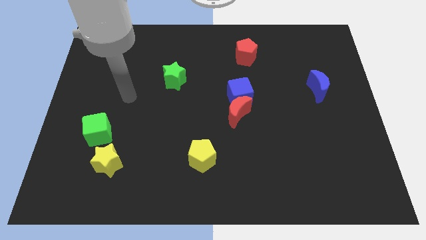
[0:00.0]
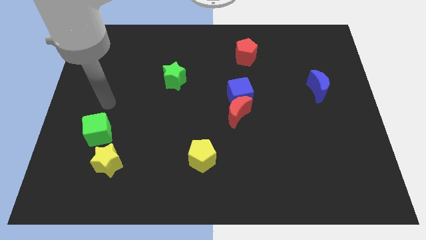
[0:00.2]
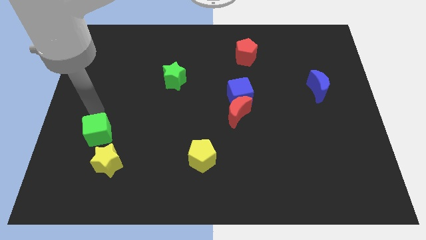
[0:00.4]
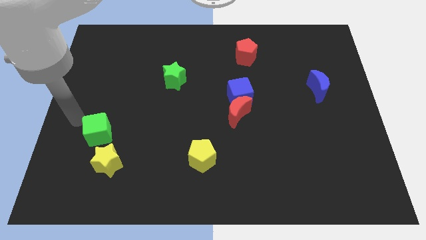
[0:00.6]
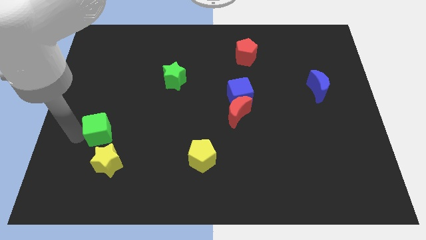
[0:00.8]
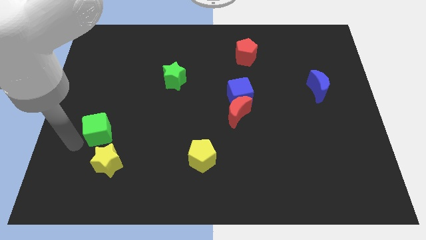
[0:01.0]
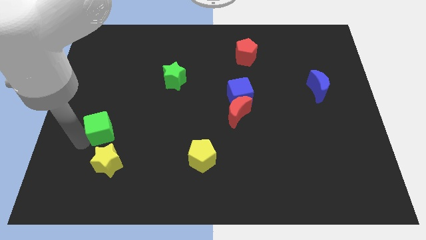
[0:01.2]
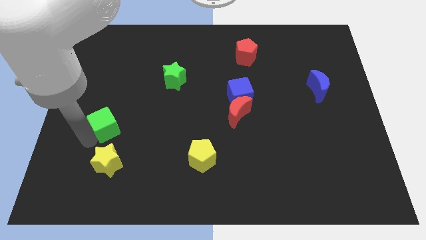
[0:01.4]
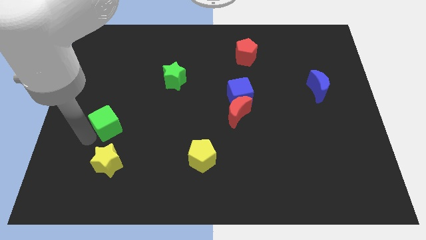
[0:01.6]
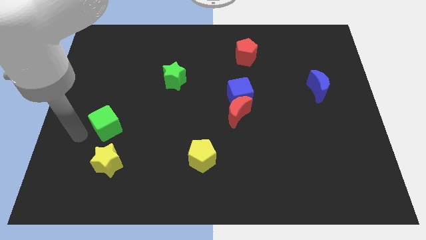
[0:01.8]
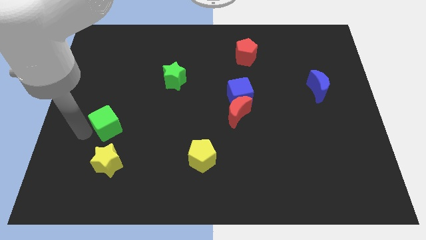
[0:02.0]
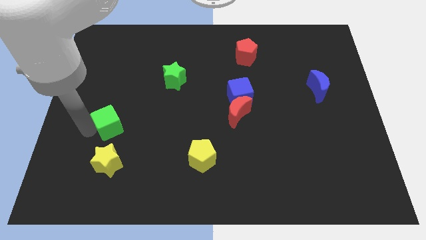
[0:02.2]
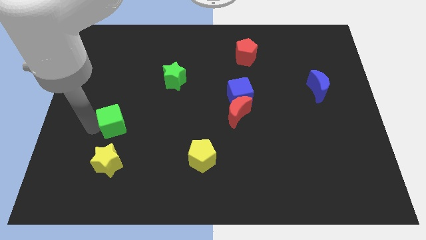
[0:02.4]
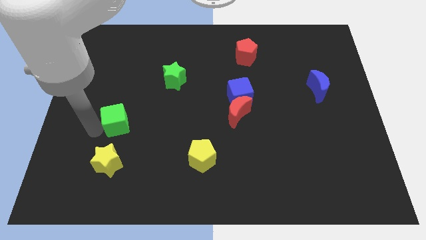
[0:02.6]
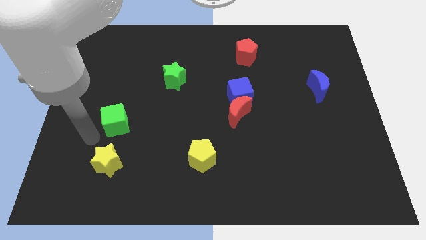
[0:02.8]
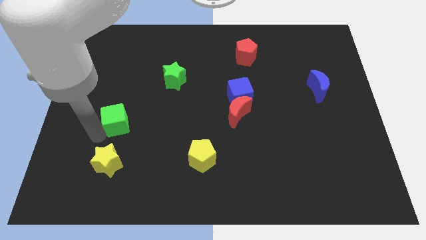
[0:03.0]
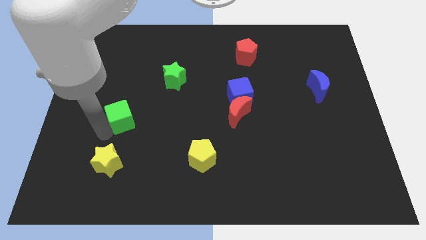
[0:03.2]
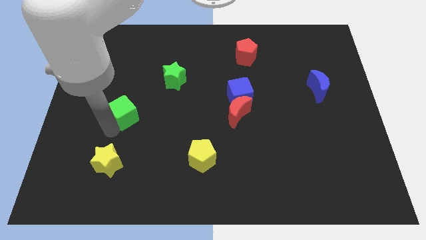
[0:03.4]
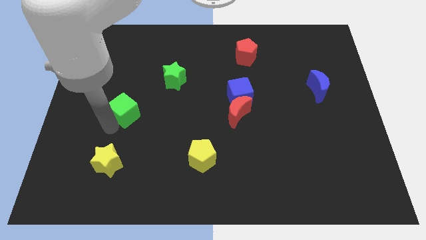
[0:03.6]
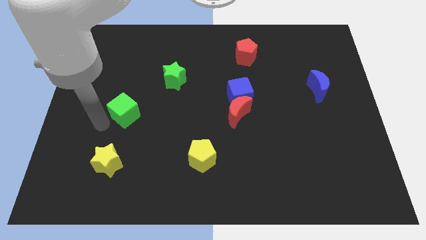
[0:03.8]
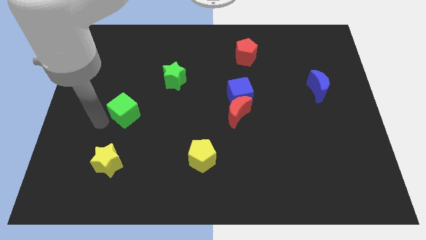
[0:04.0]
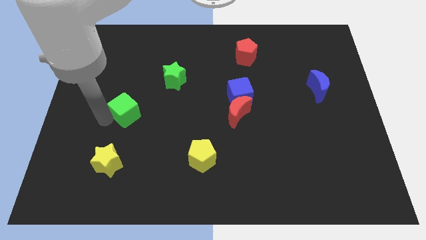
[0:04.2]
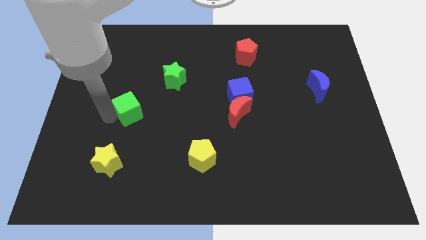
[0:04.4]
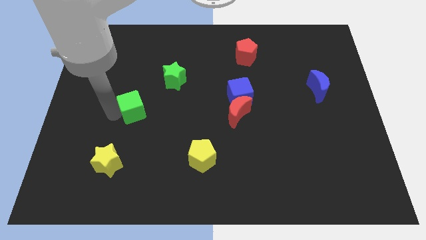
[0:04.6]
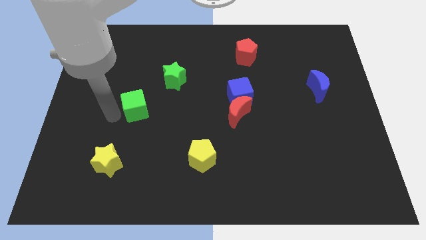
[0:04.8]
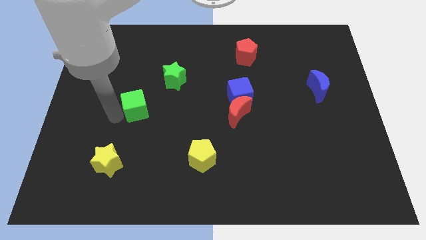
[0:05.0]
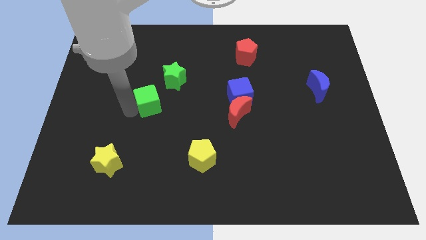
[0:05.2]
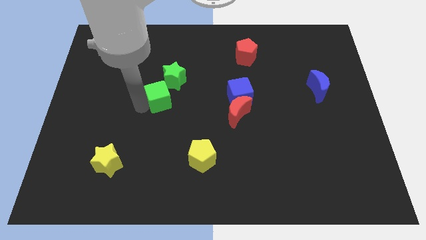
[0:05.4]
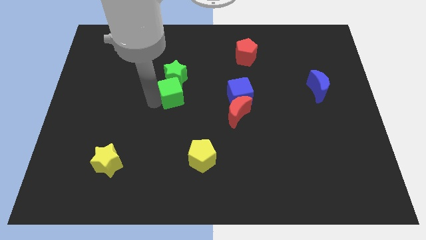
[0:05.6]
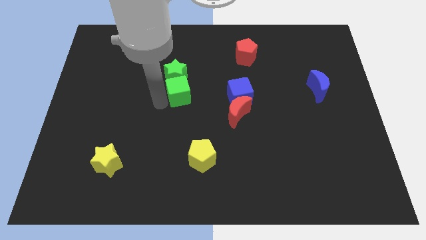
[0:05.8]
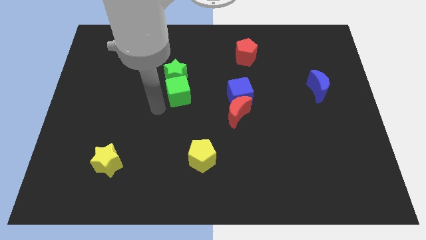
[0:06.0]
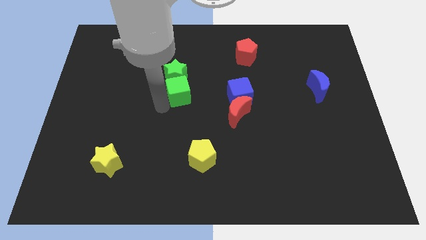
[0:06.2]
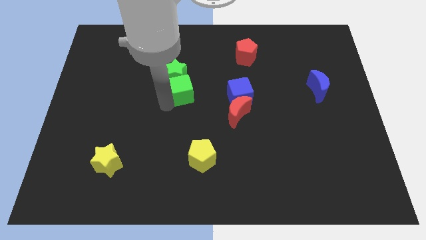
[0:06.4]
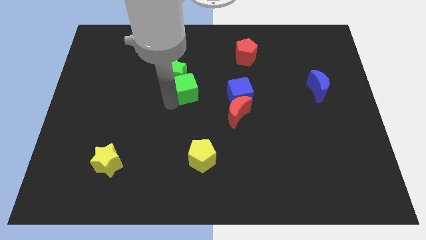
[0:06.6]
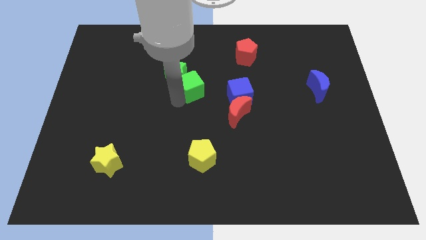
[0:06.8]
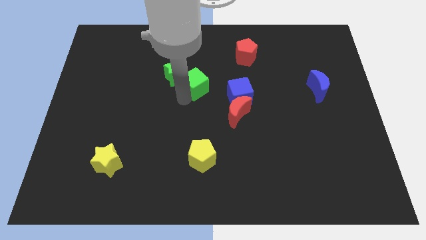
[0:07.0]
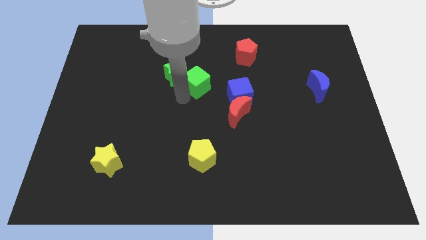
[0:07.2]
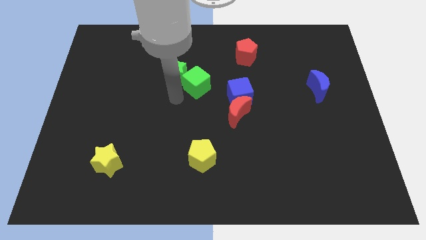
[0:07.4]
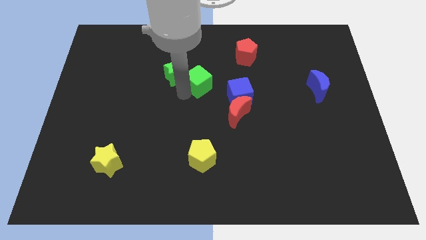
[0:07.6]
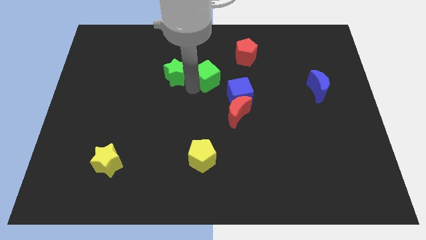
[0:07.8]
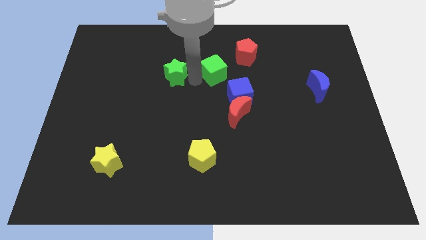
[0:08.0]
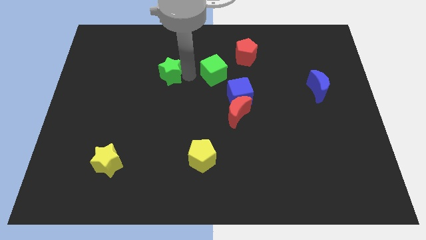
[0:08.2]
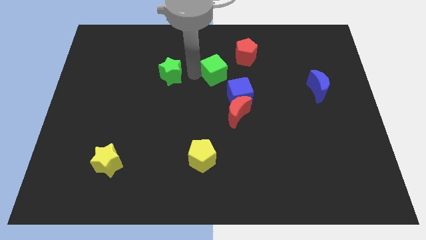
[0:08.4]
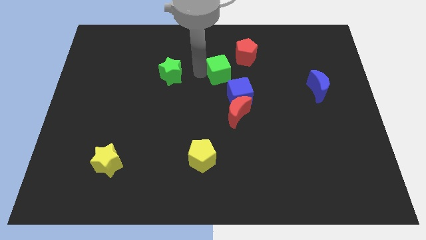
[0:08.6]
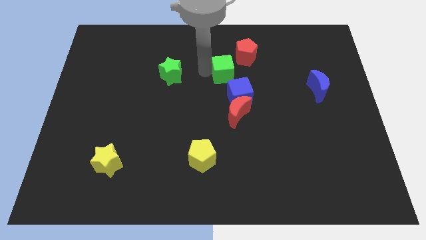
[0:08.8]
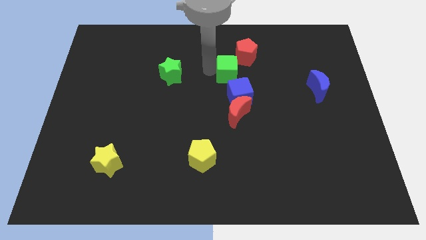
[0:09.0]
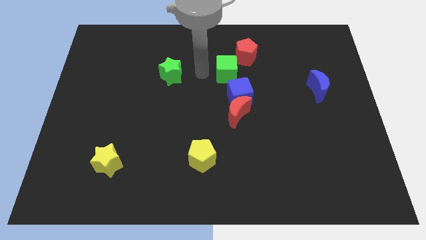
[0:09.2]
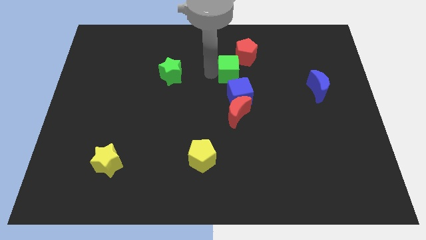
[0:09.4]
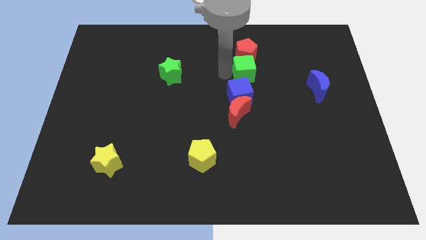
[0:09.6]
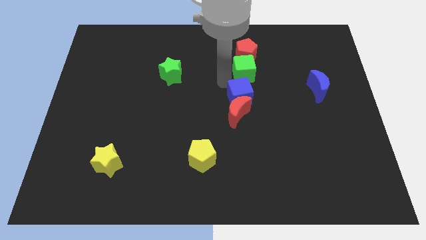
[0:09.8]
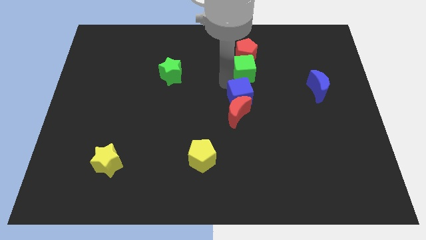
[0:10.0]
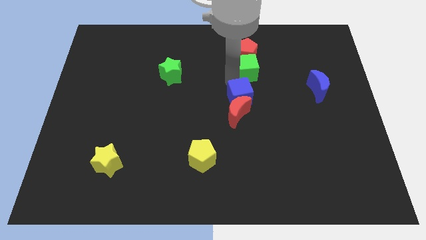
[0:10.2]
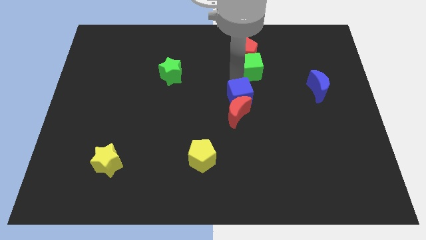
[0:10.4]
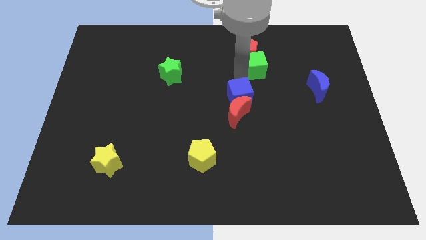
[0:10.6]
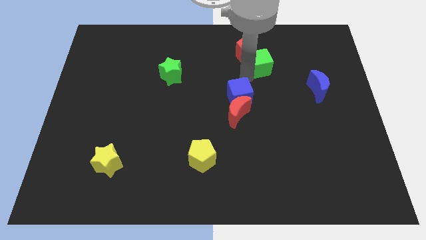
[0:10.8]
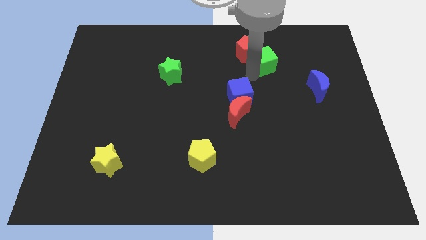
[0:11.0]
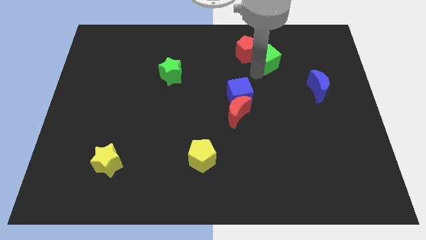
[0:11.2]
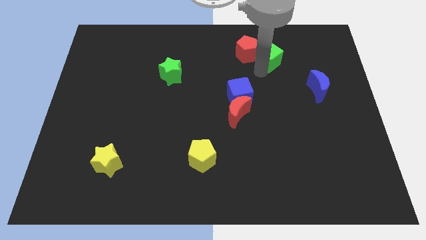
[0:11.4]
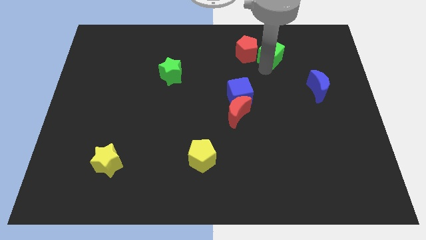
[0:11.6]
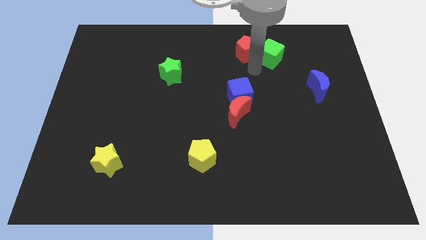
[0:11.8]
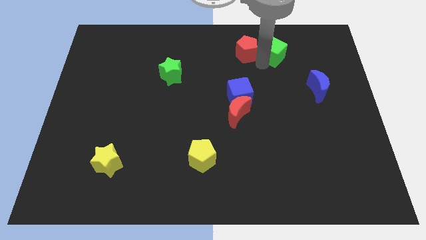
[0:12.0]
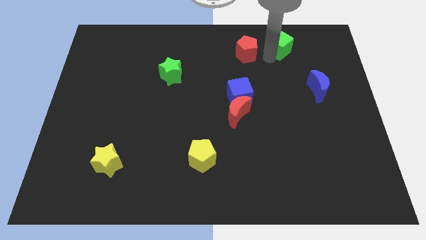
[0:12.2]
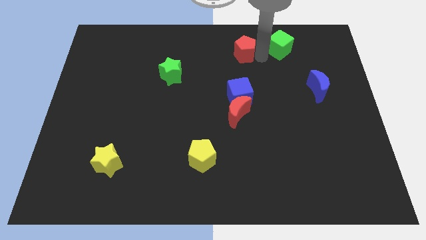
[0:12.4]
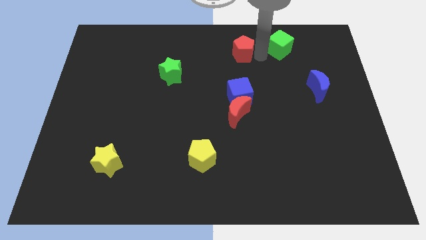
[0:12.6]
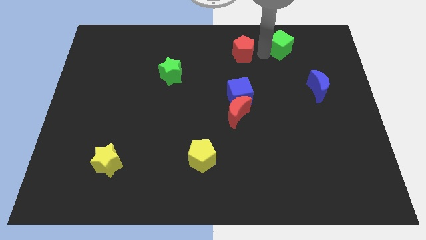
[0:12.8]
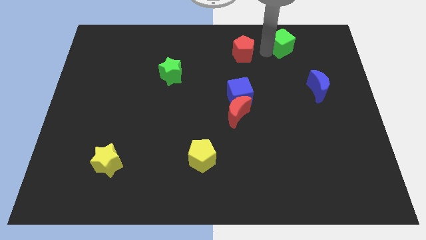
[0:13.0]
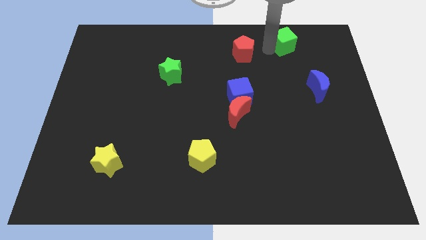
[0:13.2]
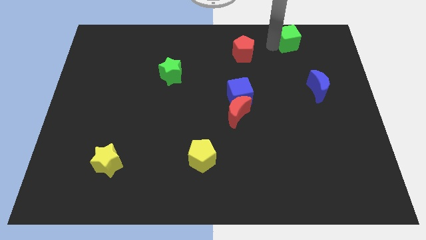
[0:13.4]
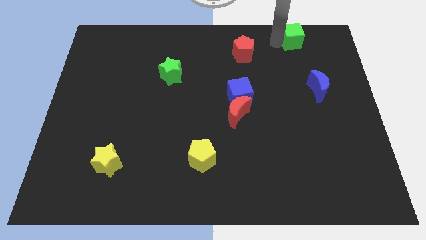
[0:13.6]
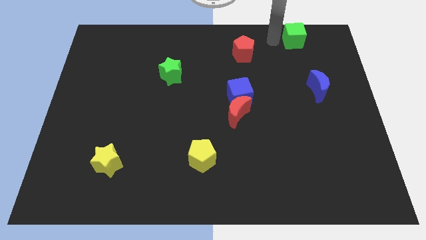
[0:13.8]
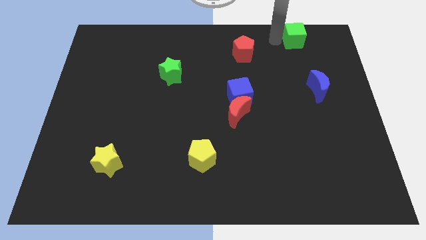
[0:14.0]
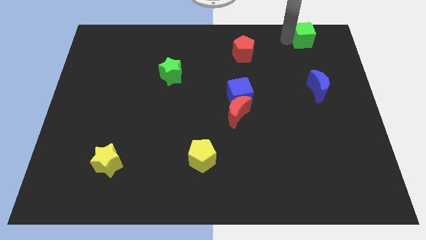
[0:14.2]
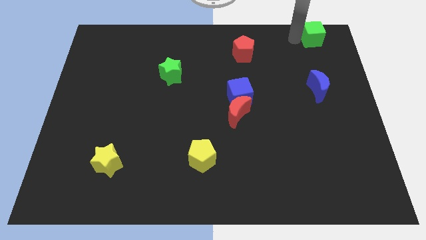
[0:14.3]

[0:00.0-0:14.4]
put the green cube to the top right of the board
